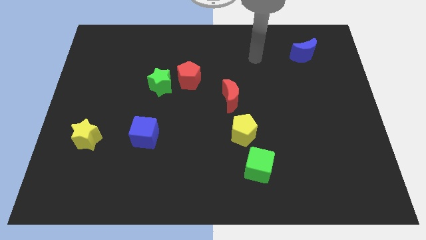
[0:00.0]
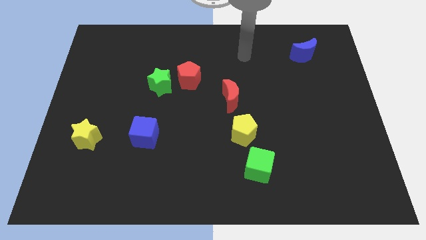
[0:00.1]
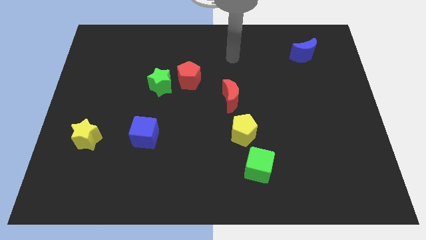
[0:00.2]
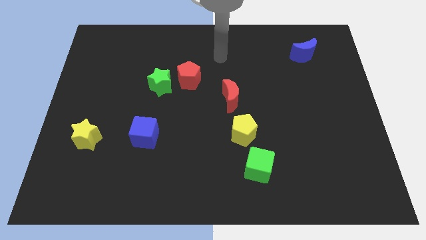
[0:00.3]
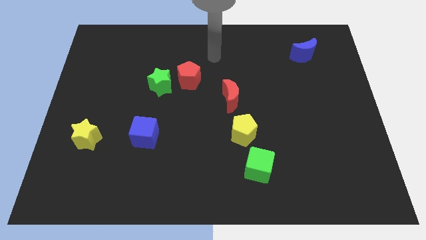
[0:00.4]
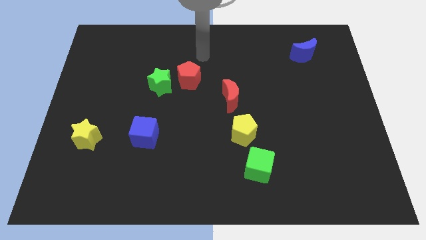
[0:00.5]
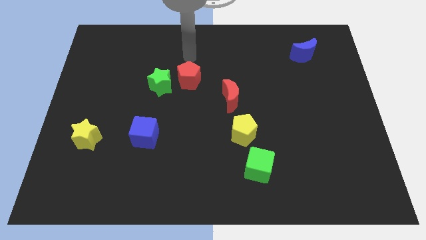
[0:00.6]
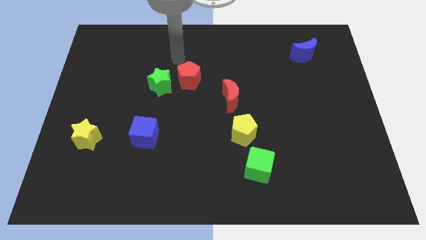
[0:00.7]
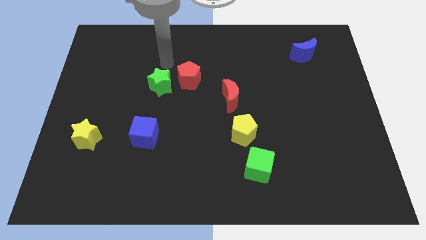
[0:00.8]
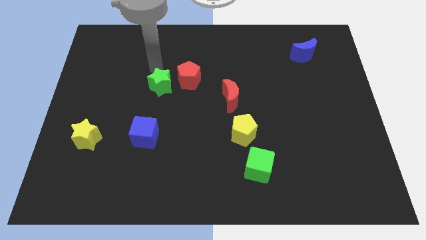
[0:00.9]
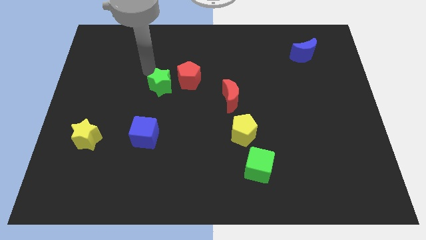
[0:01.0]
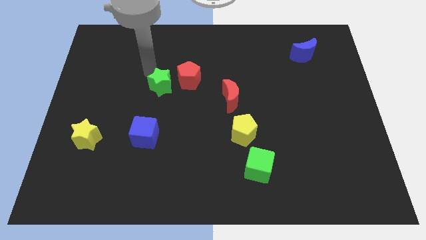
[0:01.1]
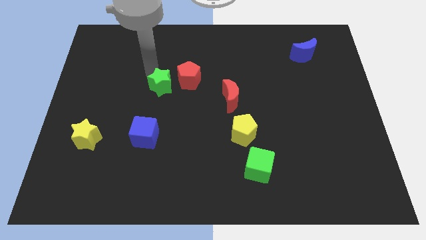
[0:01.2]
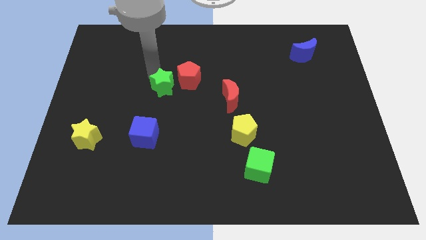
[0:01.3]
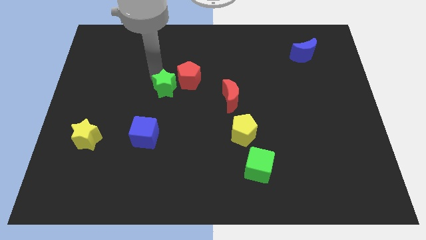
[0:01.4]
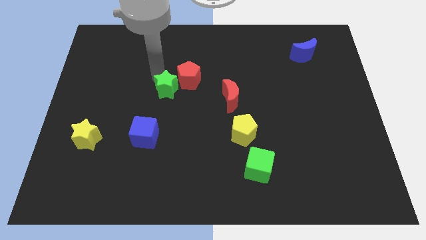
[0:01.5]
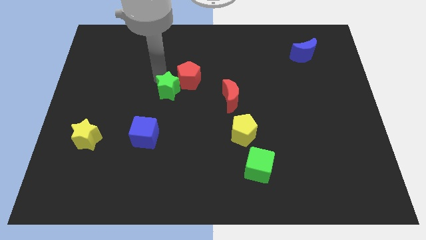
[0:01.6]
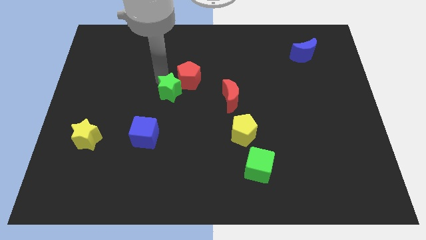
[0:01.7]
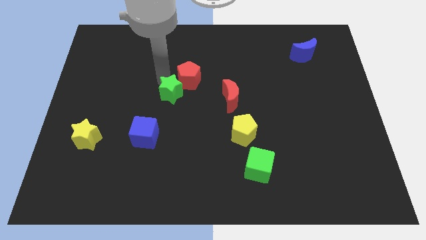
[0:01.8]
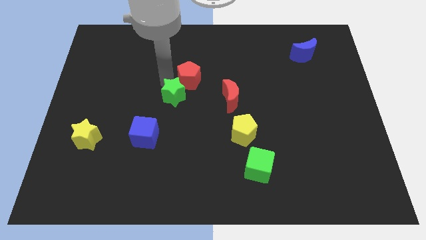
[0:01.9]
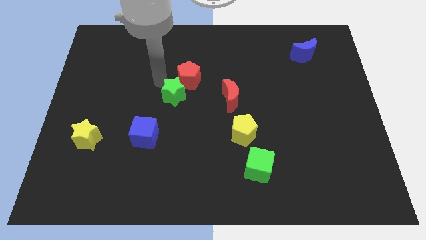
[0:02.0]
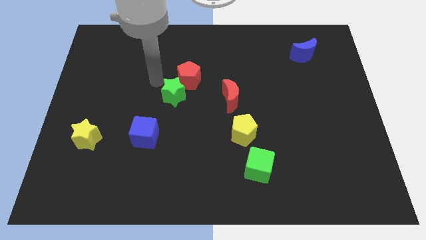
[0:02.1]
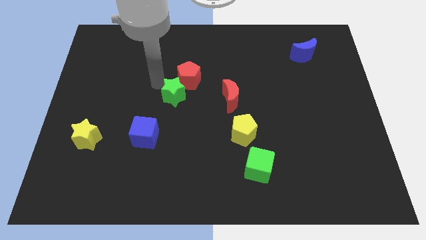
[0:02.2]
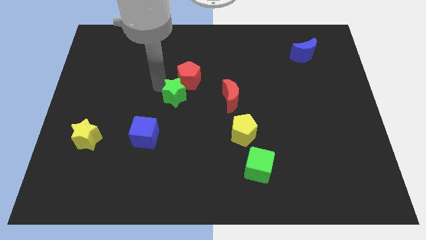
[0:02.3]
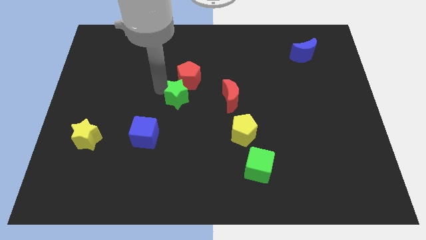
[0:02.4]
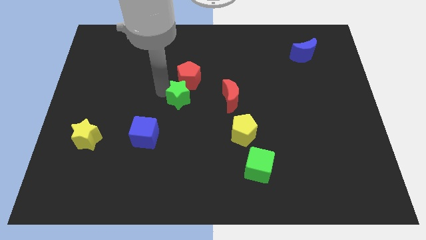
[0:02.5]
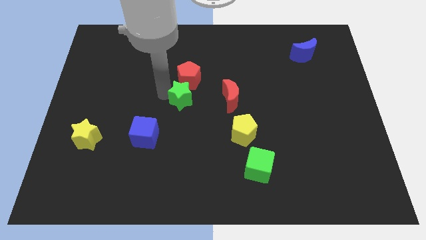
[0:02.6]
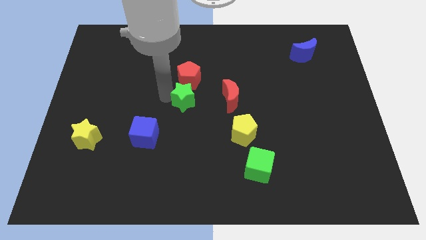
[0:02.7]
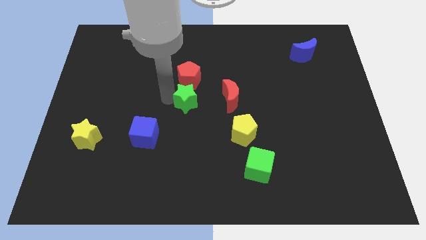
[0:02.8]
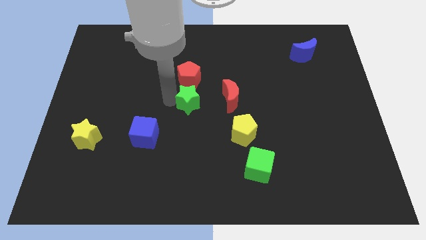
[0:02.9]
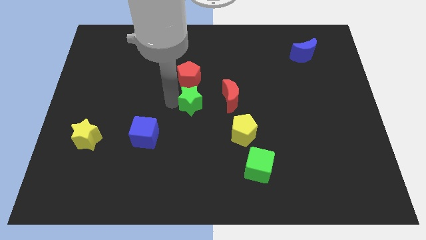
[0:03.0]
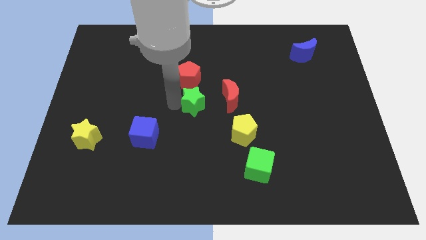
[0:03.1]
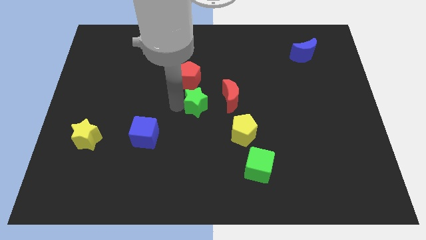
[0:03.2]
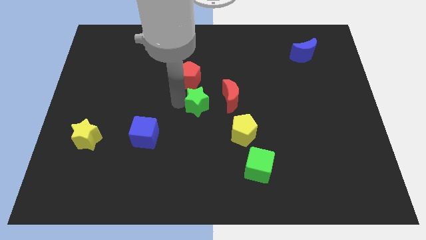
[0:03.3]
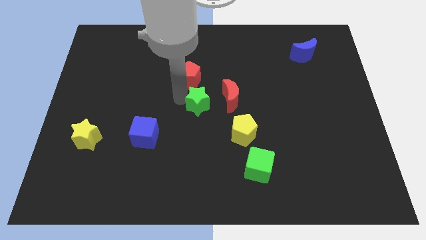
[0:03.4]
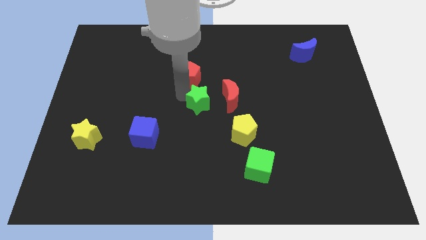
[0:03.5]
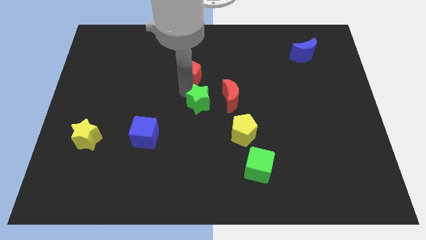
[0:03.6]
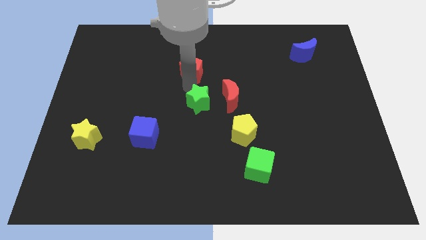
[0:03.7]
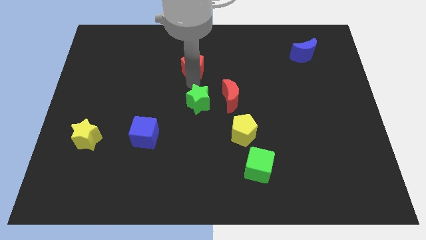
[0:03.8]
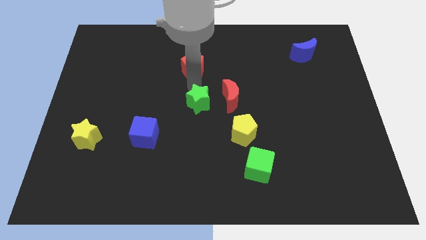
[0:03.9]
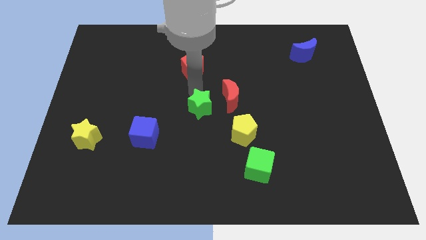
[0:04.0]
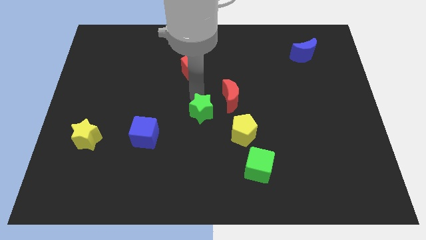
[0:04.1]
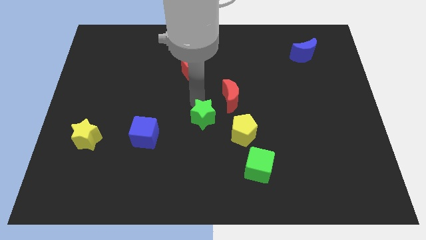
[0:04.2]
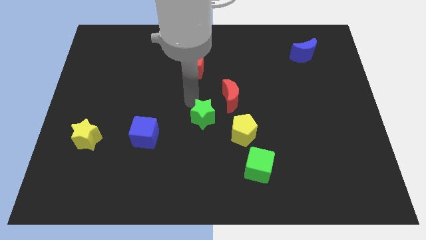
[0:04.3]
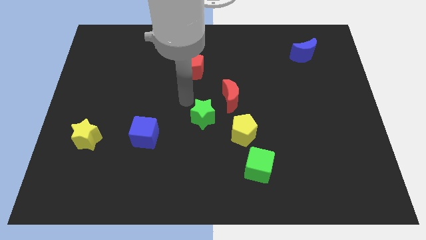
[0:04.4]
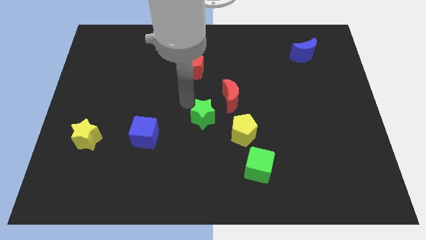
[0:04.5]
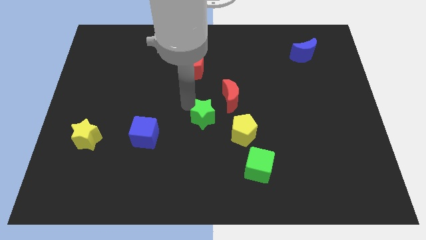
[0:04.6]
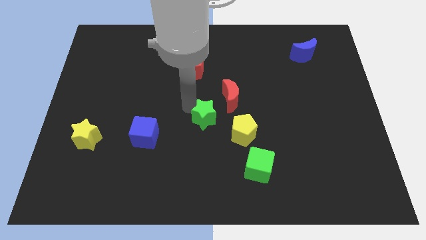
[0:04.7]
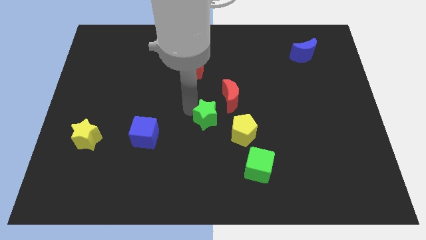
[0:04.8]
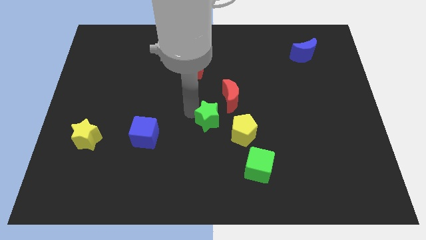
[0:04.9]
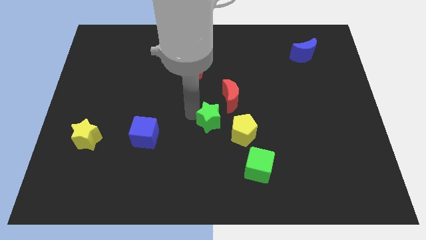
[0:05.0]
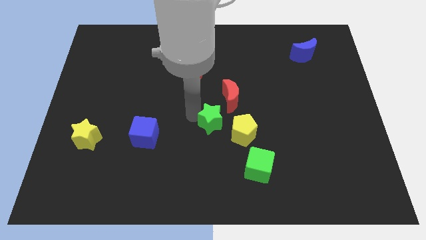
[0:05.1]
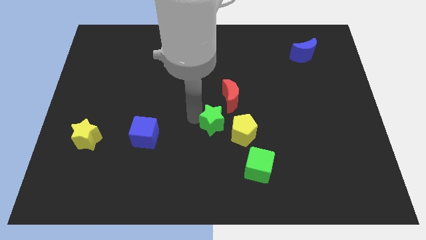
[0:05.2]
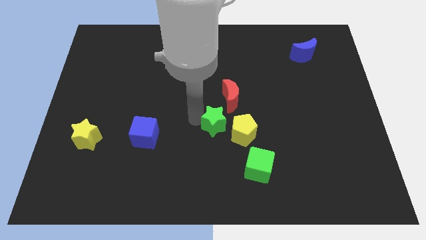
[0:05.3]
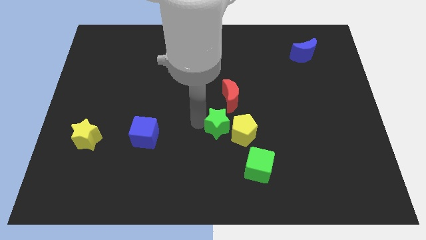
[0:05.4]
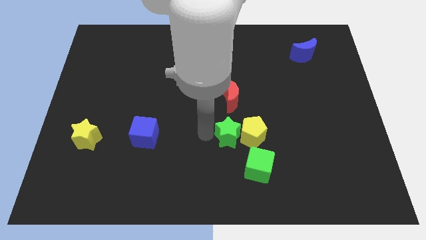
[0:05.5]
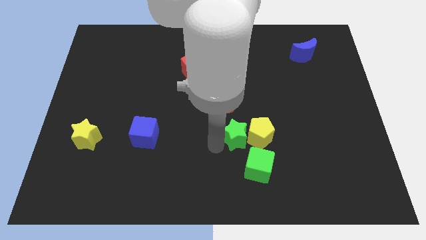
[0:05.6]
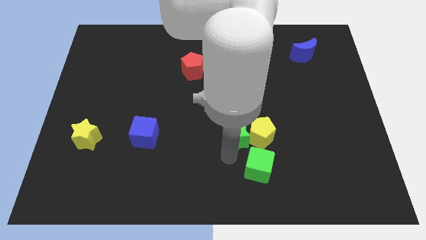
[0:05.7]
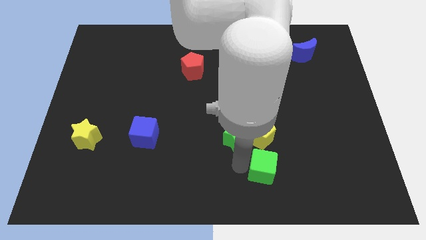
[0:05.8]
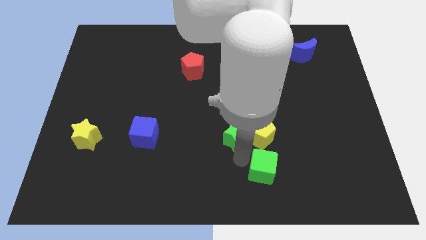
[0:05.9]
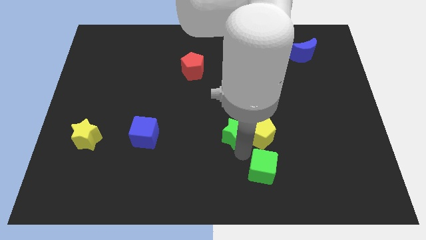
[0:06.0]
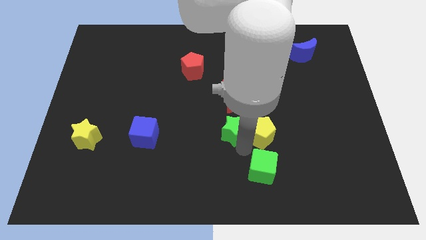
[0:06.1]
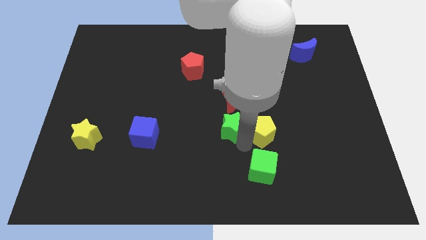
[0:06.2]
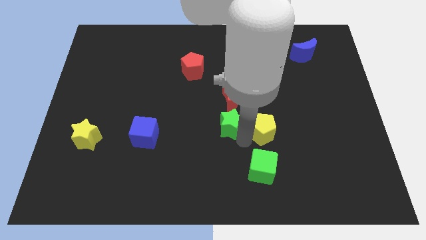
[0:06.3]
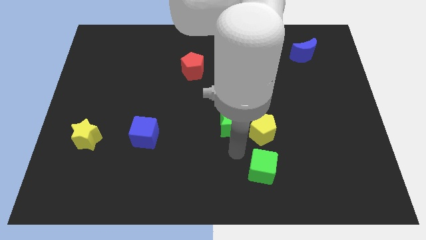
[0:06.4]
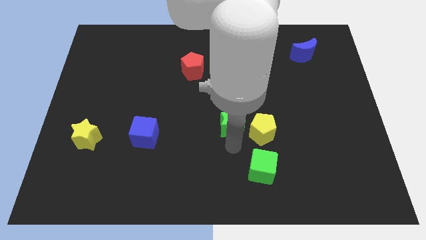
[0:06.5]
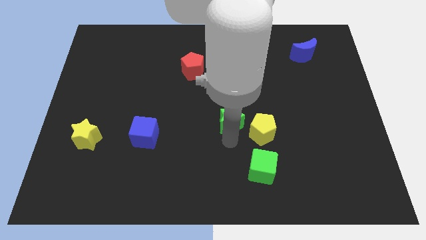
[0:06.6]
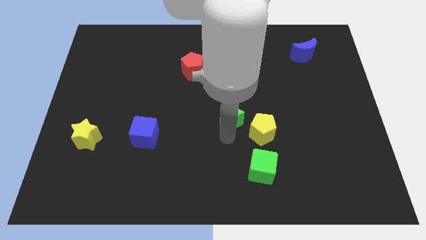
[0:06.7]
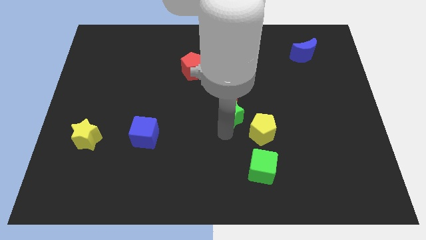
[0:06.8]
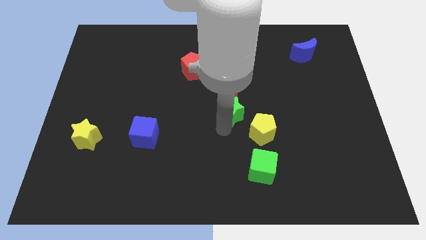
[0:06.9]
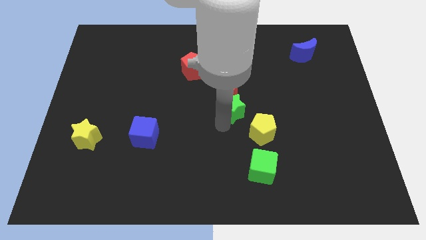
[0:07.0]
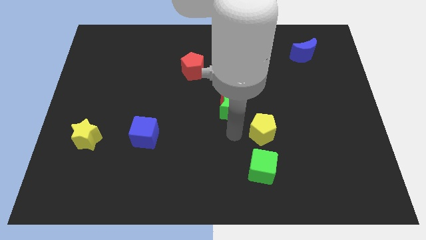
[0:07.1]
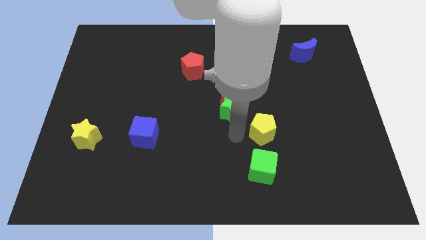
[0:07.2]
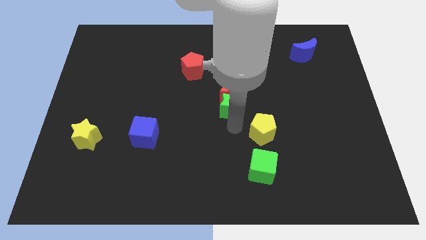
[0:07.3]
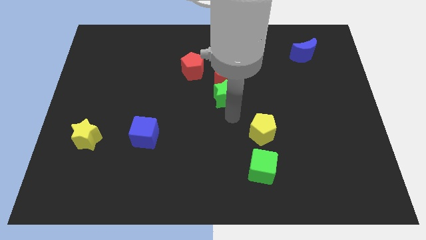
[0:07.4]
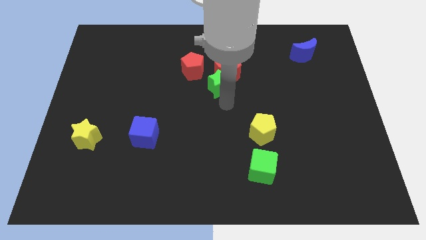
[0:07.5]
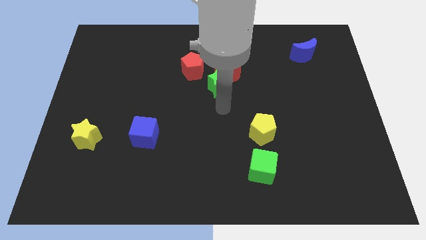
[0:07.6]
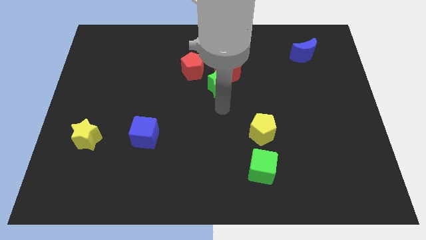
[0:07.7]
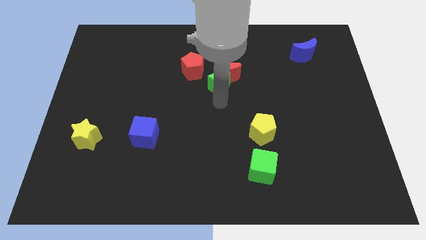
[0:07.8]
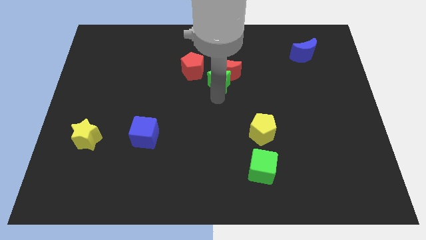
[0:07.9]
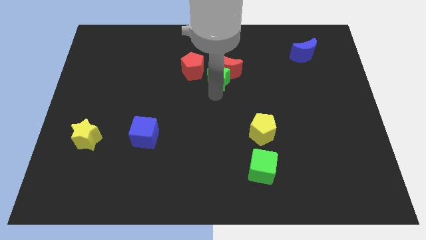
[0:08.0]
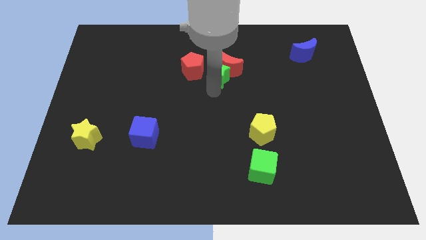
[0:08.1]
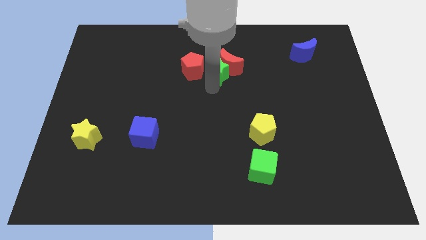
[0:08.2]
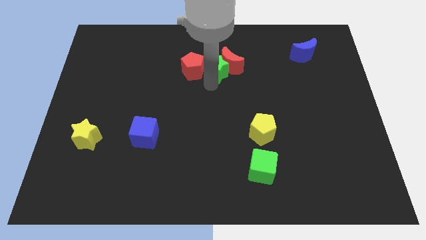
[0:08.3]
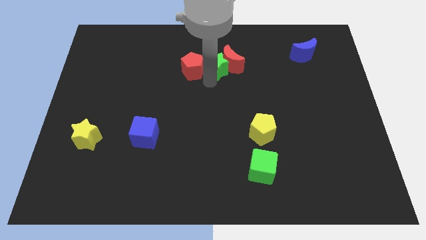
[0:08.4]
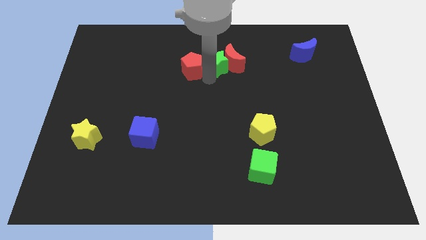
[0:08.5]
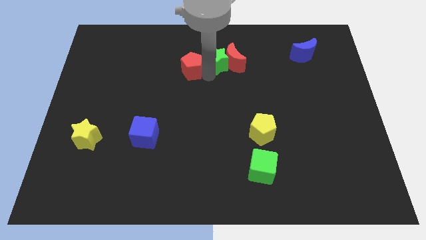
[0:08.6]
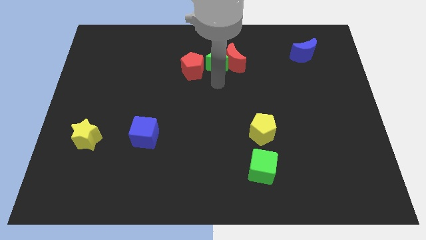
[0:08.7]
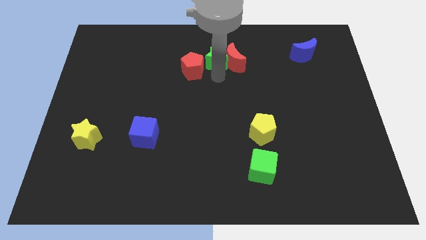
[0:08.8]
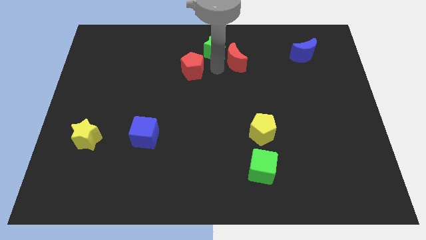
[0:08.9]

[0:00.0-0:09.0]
push the green star to the towards your base
